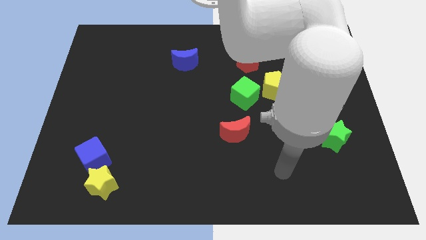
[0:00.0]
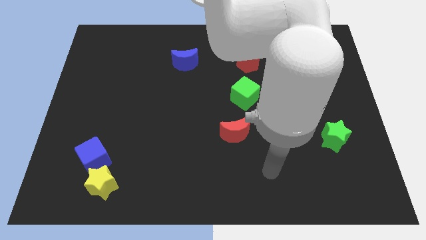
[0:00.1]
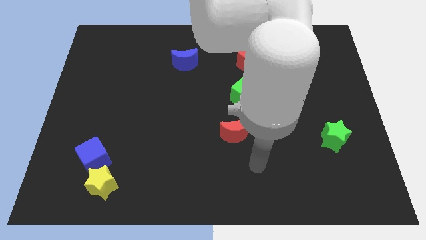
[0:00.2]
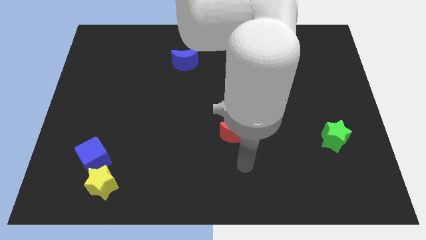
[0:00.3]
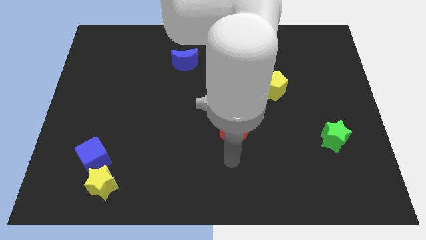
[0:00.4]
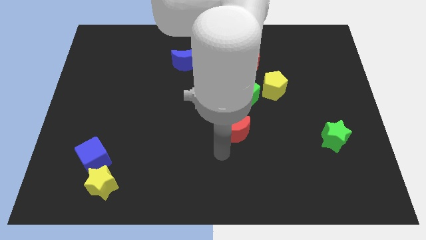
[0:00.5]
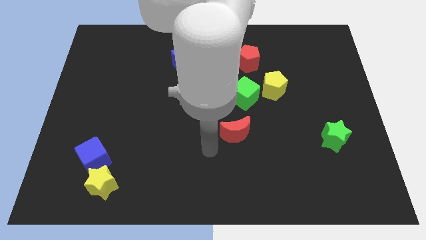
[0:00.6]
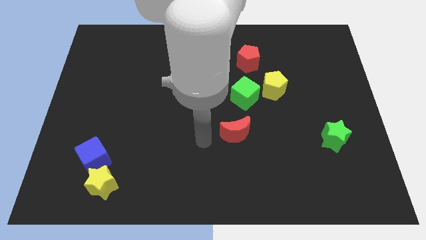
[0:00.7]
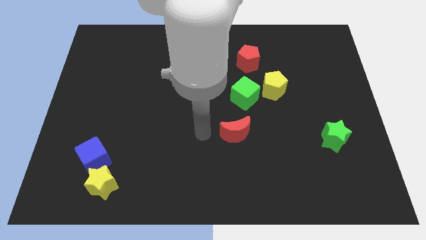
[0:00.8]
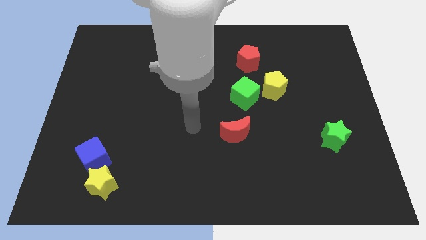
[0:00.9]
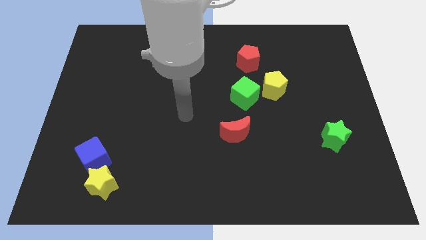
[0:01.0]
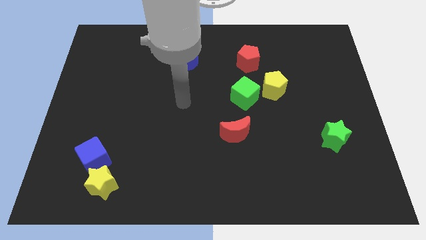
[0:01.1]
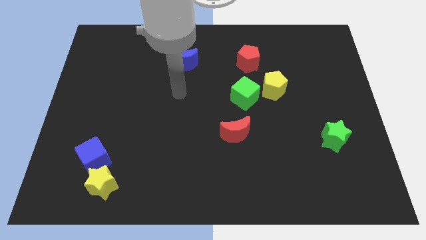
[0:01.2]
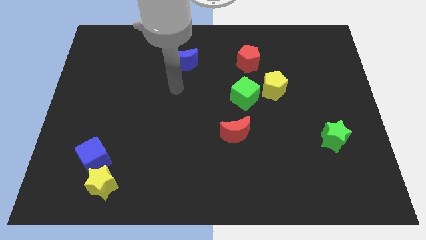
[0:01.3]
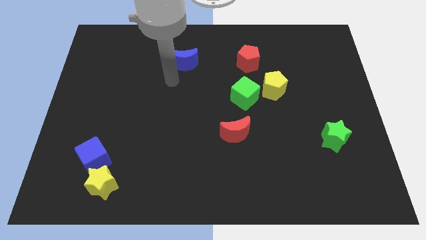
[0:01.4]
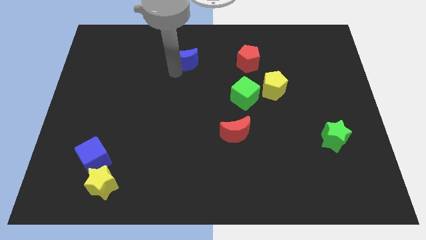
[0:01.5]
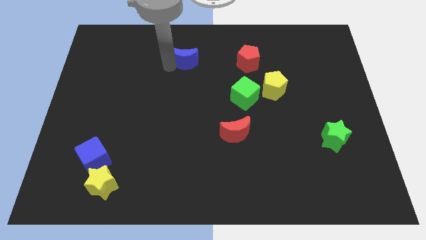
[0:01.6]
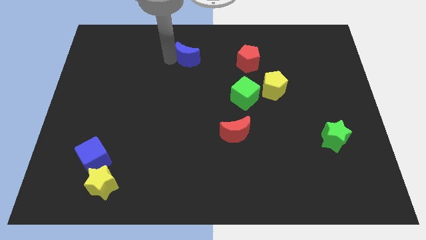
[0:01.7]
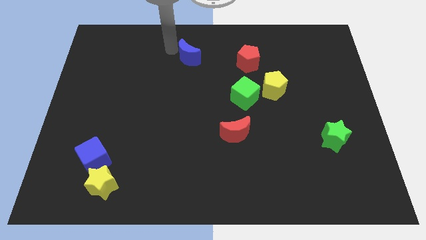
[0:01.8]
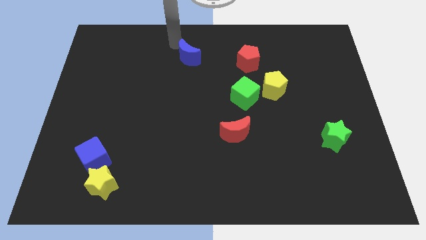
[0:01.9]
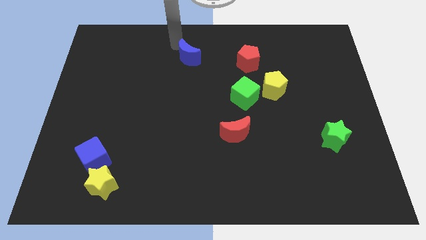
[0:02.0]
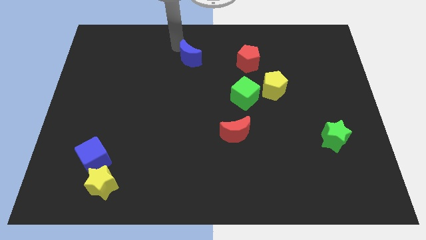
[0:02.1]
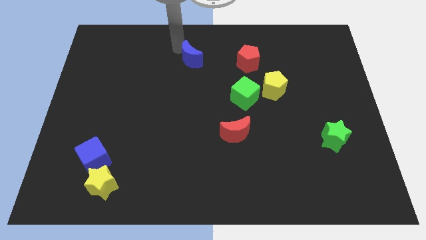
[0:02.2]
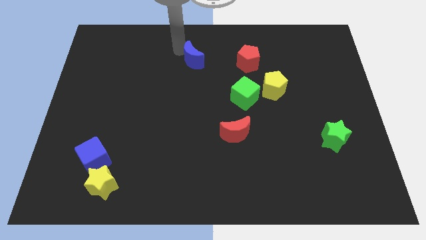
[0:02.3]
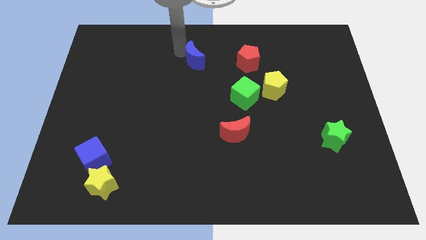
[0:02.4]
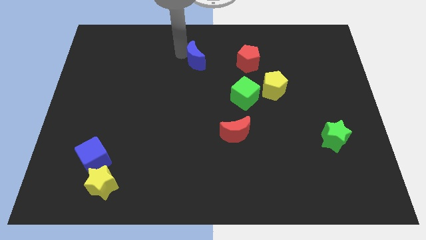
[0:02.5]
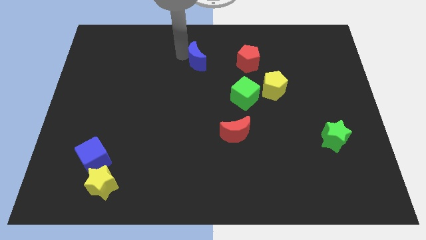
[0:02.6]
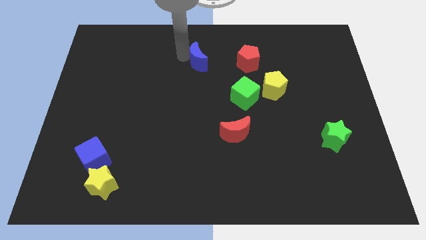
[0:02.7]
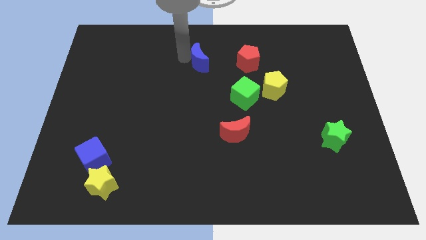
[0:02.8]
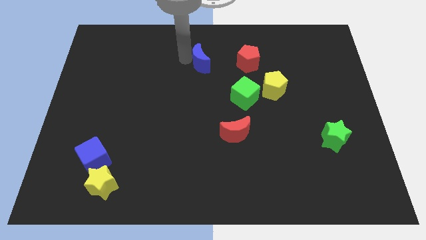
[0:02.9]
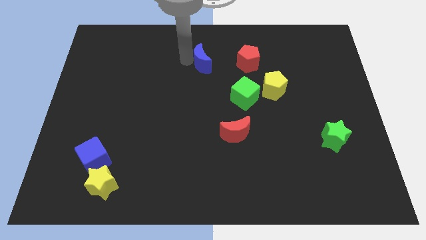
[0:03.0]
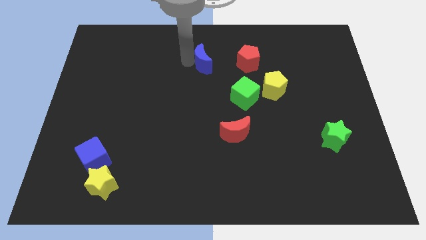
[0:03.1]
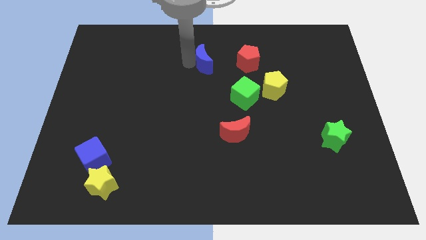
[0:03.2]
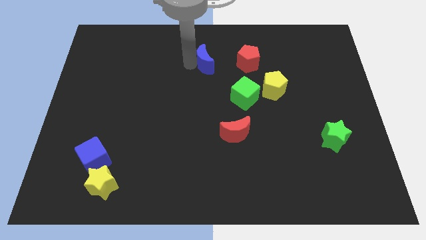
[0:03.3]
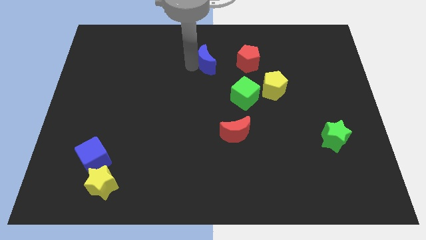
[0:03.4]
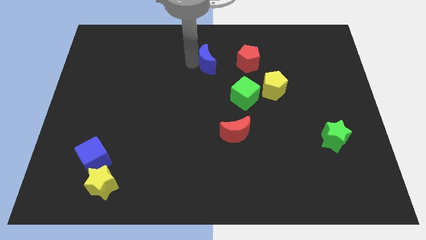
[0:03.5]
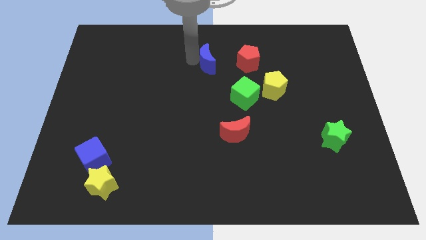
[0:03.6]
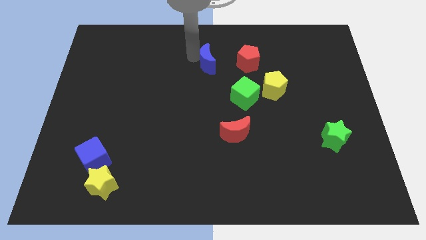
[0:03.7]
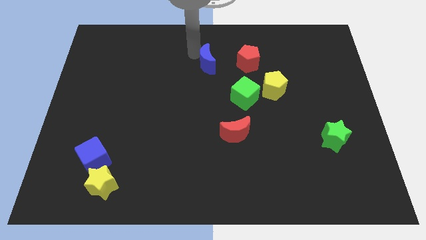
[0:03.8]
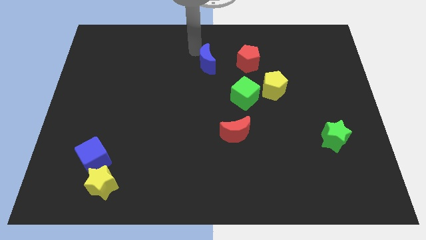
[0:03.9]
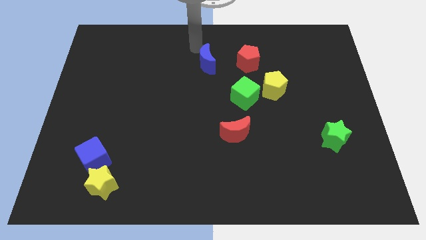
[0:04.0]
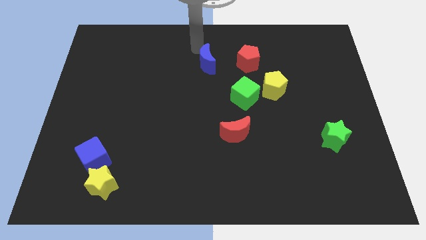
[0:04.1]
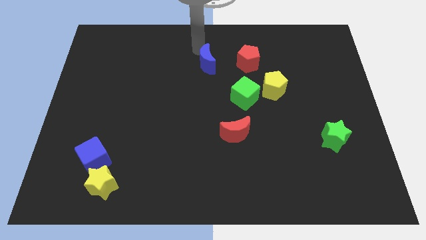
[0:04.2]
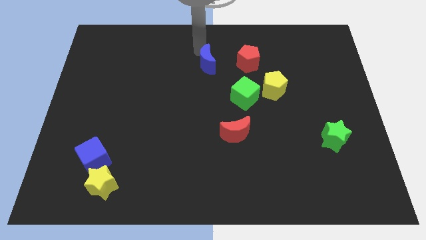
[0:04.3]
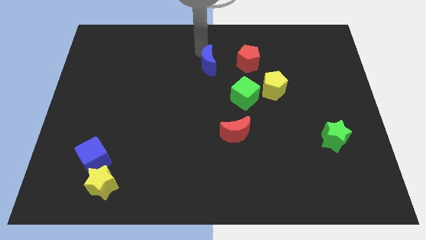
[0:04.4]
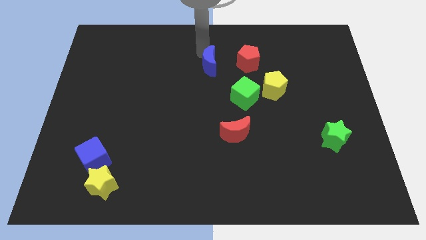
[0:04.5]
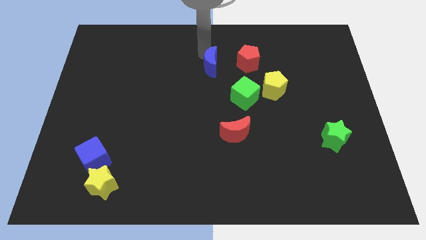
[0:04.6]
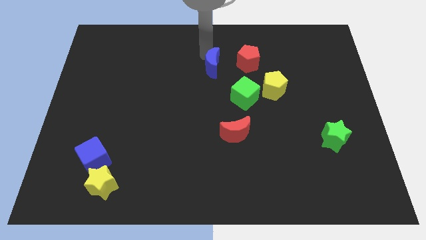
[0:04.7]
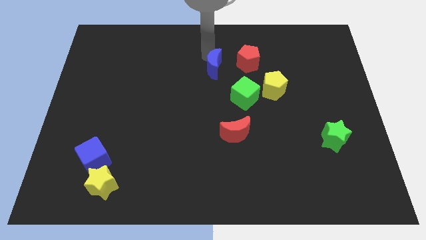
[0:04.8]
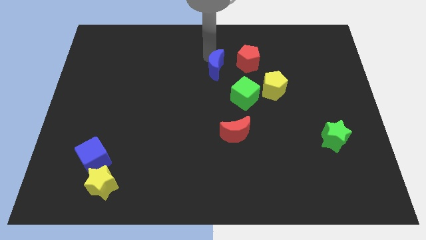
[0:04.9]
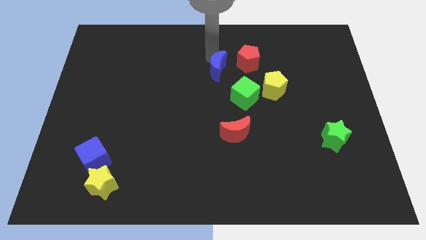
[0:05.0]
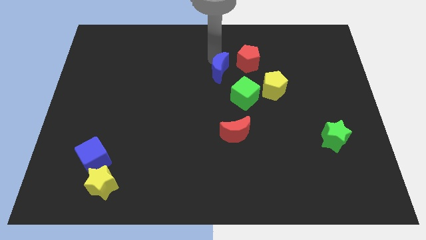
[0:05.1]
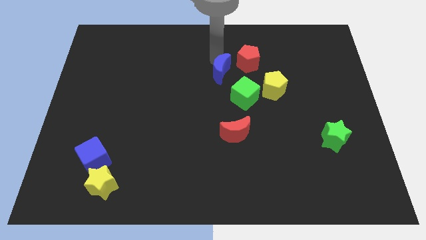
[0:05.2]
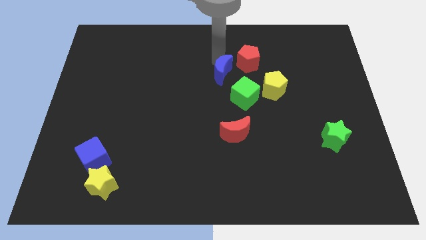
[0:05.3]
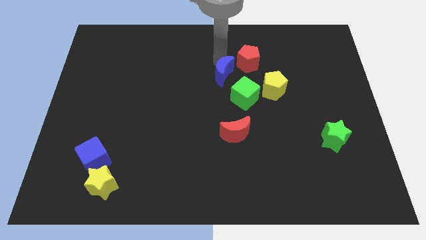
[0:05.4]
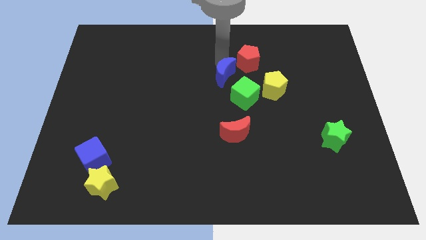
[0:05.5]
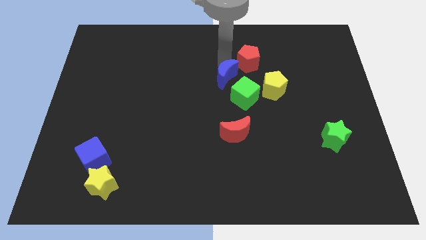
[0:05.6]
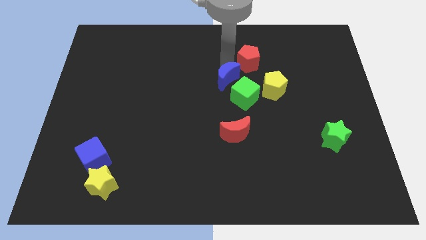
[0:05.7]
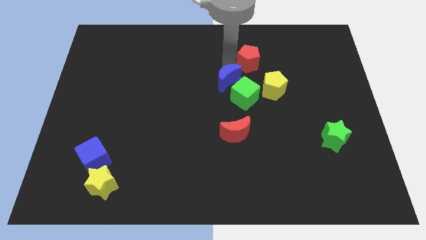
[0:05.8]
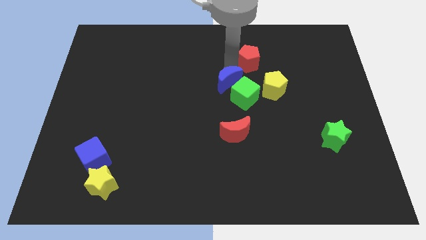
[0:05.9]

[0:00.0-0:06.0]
move the blue moon next to the green cube

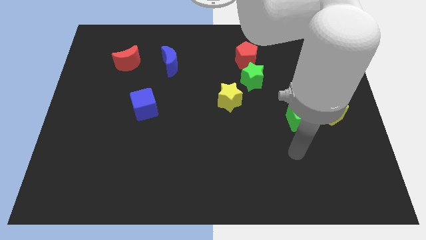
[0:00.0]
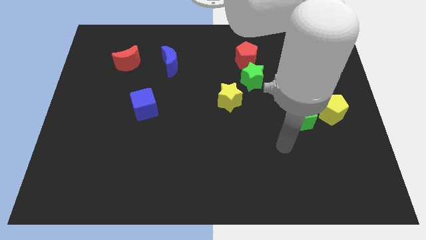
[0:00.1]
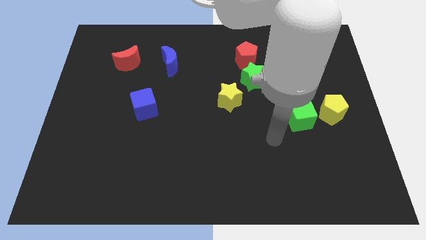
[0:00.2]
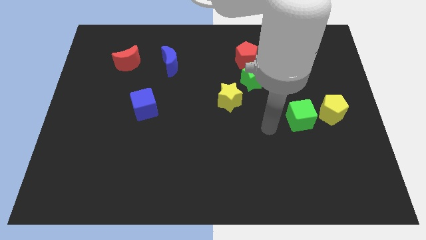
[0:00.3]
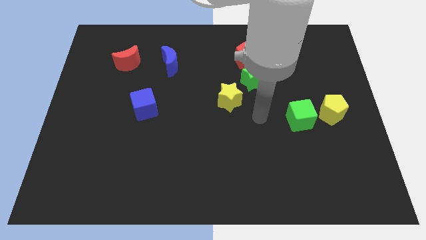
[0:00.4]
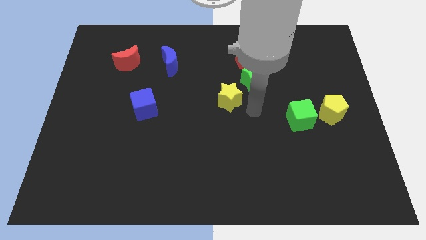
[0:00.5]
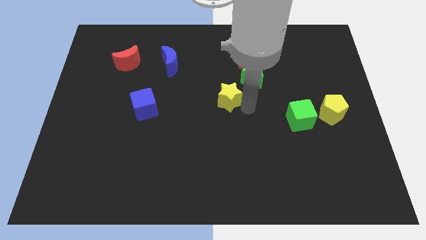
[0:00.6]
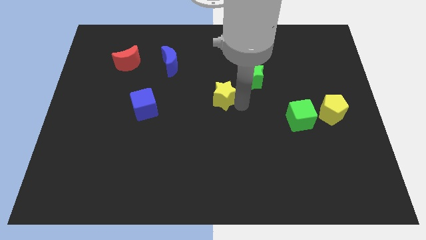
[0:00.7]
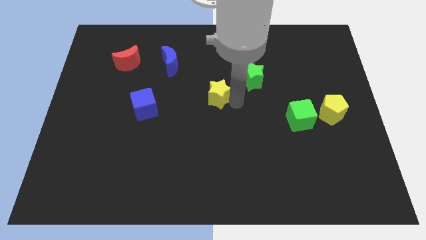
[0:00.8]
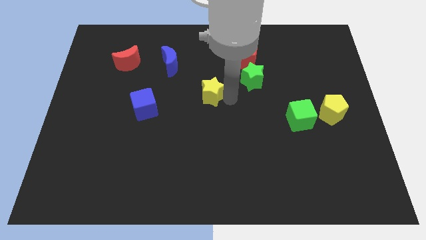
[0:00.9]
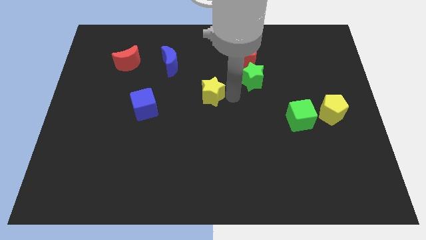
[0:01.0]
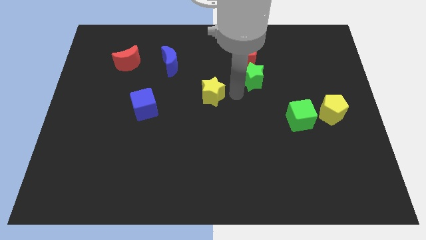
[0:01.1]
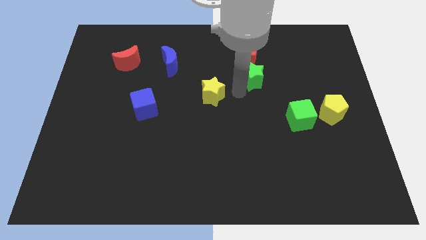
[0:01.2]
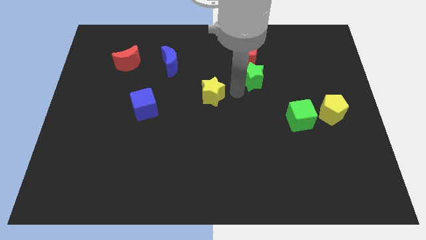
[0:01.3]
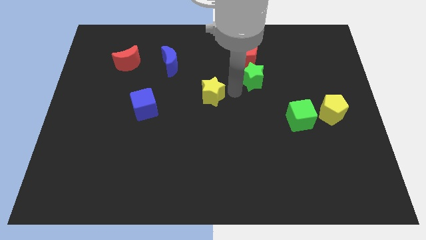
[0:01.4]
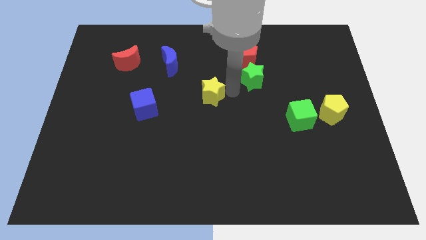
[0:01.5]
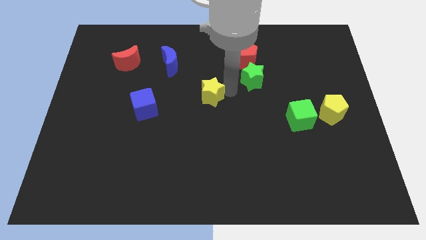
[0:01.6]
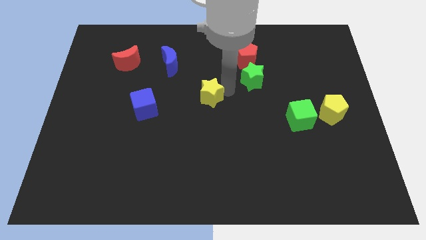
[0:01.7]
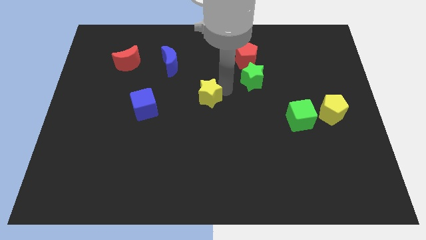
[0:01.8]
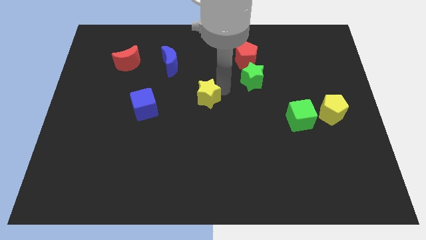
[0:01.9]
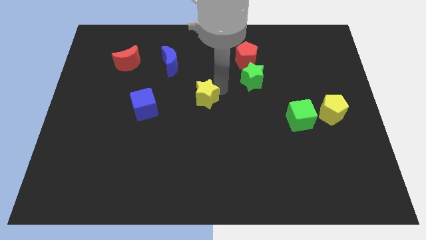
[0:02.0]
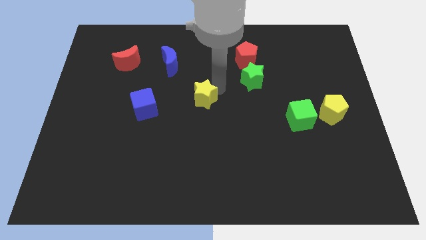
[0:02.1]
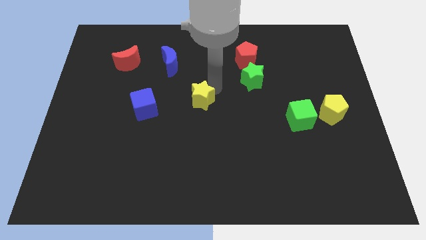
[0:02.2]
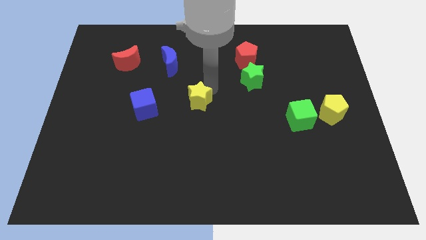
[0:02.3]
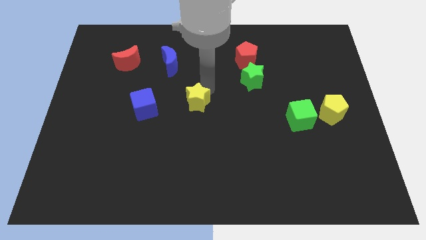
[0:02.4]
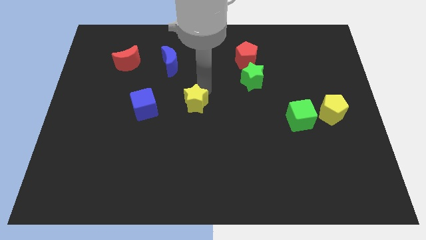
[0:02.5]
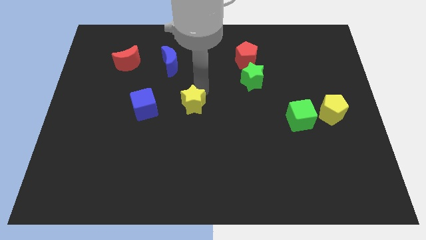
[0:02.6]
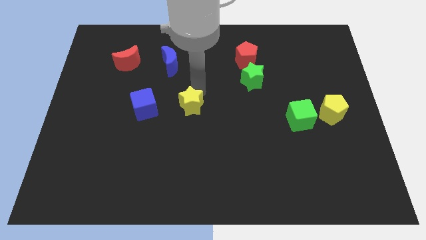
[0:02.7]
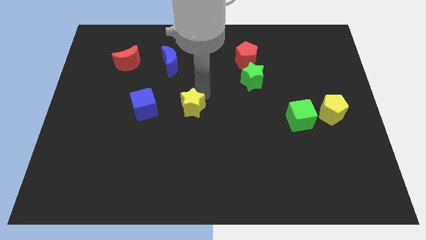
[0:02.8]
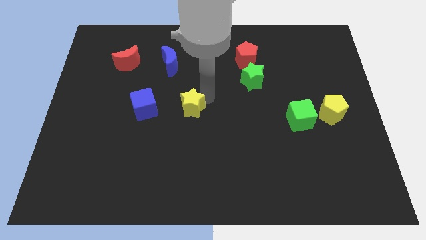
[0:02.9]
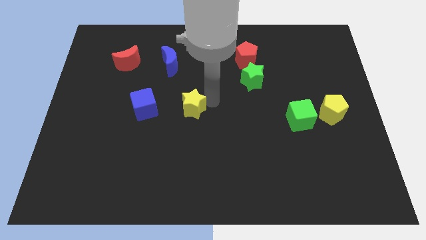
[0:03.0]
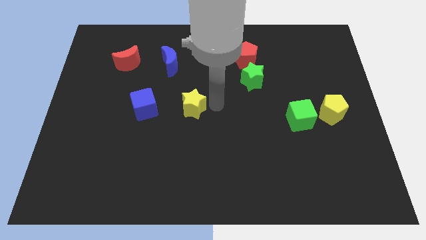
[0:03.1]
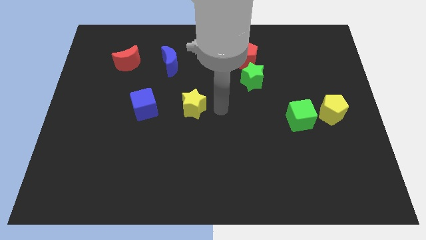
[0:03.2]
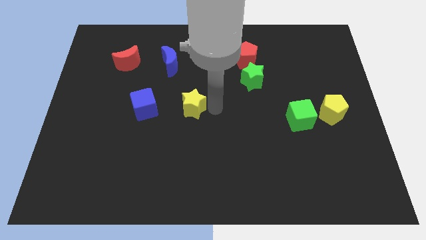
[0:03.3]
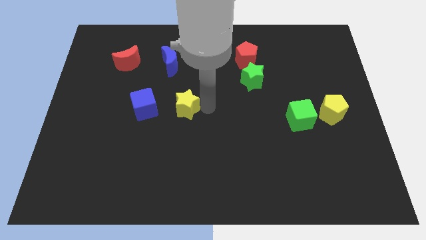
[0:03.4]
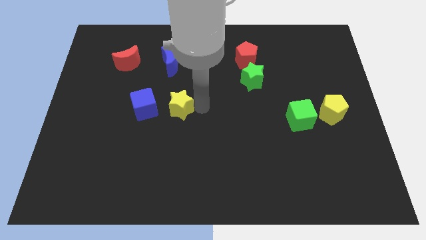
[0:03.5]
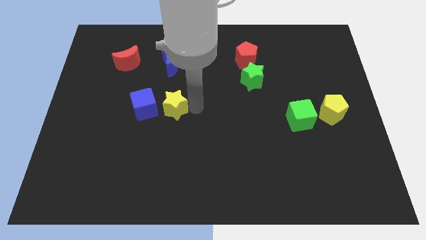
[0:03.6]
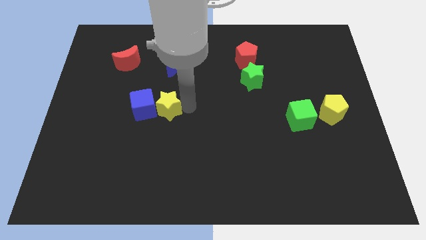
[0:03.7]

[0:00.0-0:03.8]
slide the yellow star next to the blue cube
